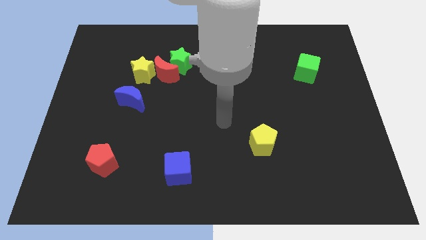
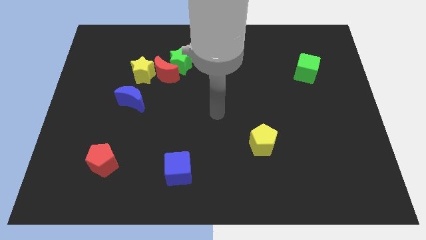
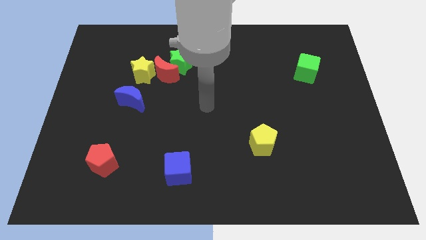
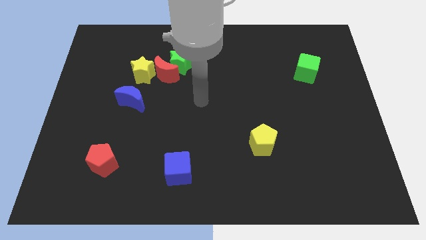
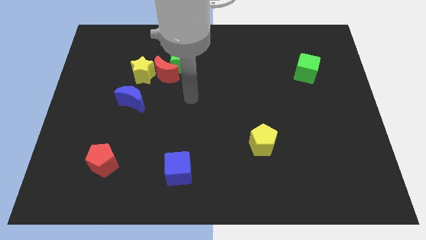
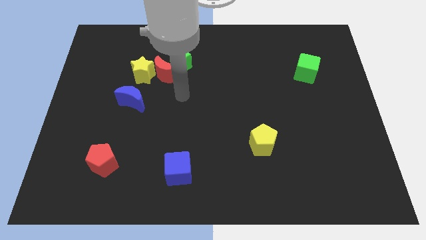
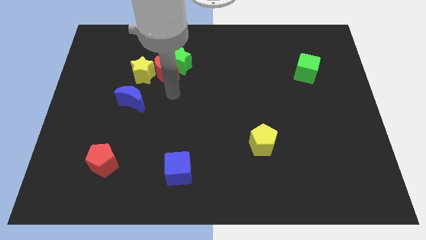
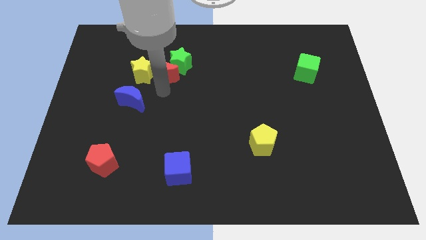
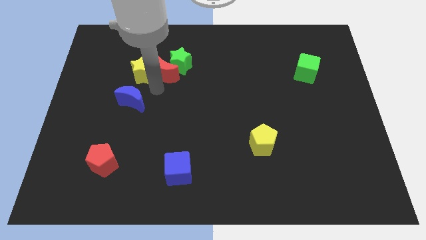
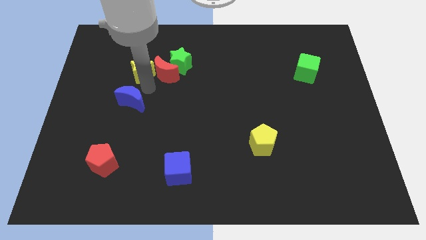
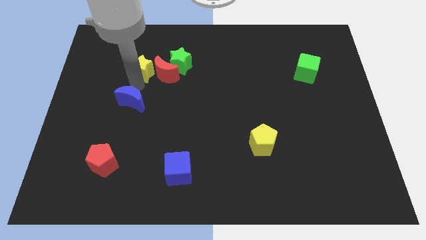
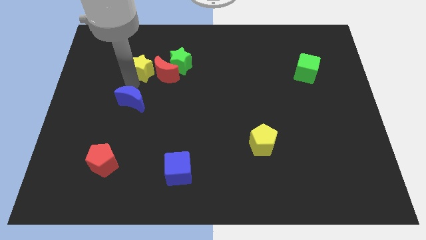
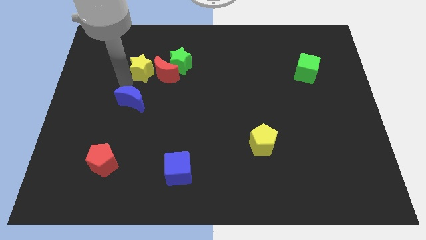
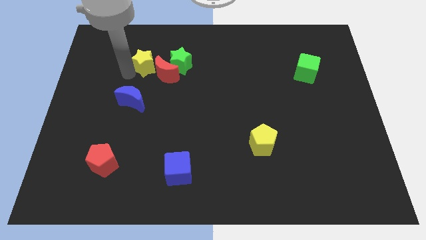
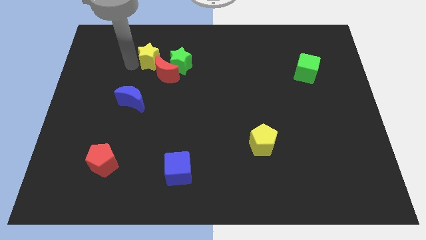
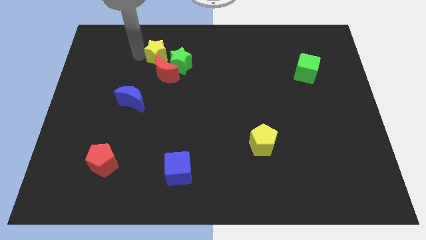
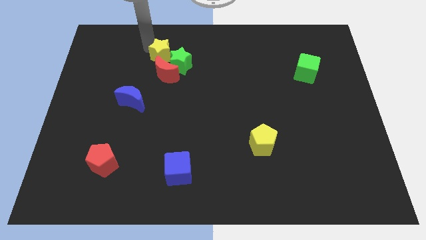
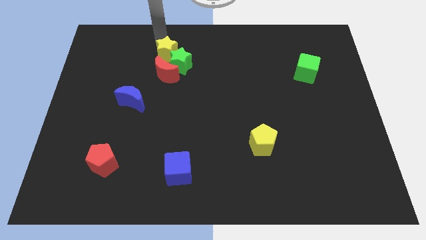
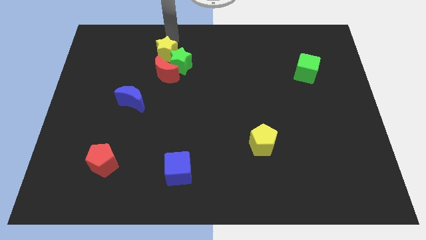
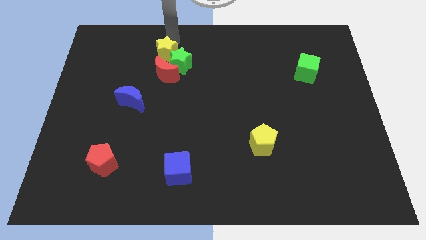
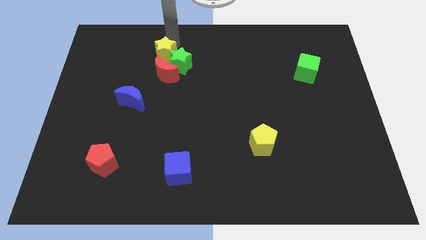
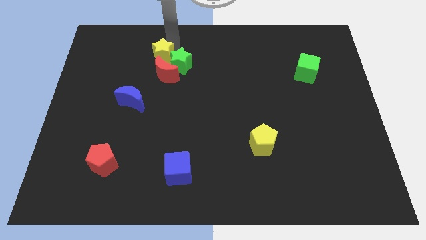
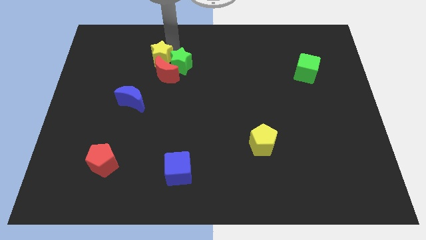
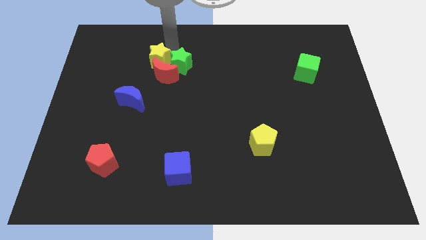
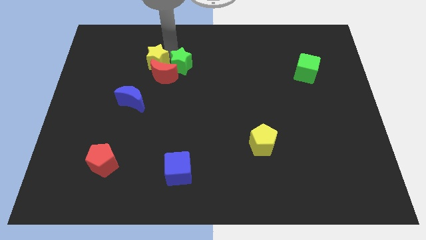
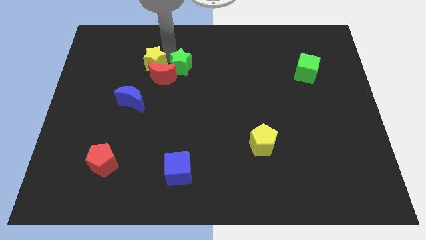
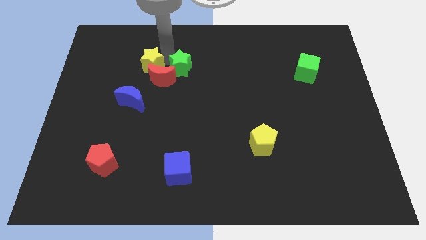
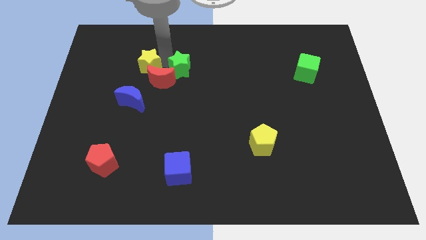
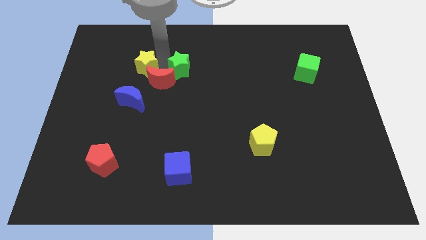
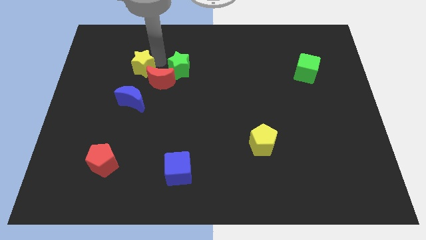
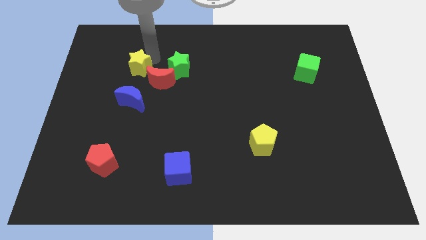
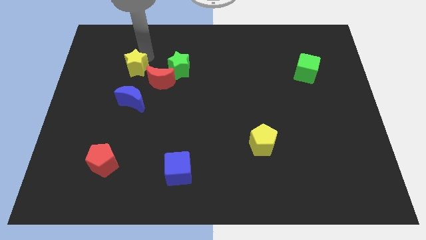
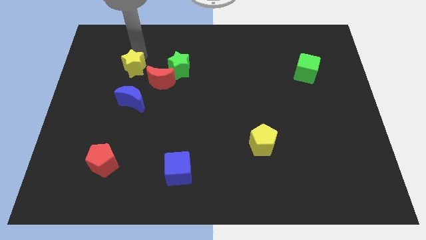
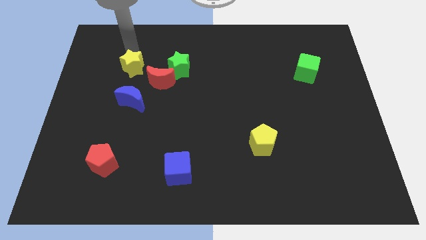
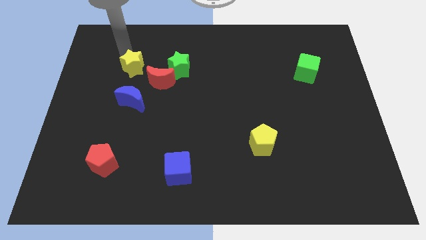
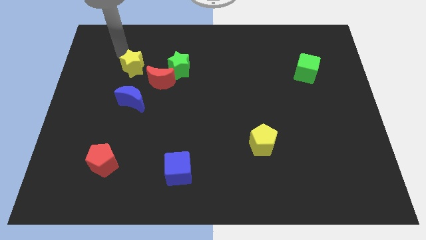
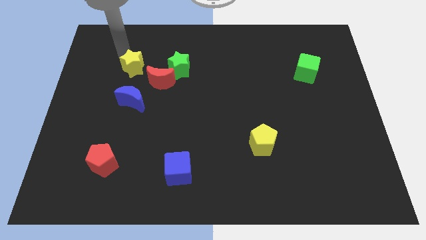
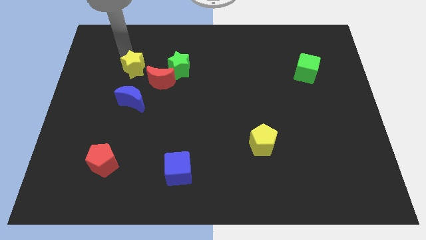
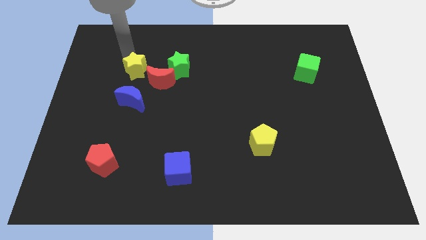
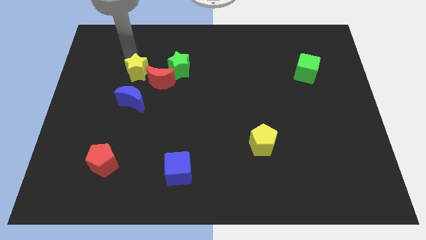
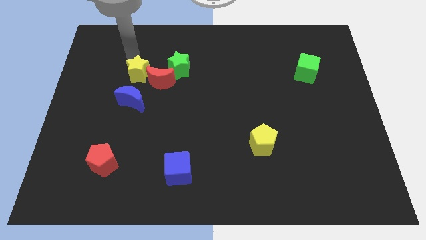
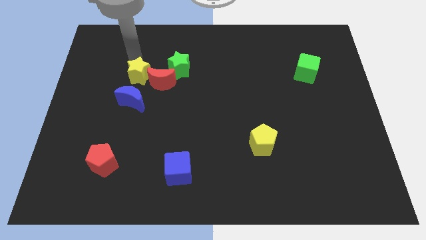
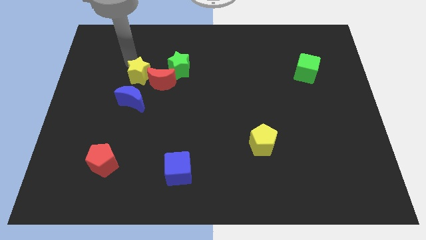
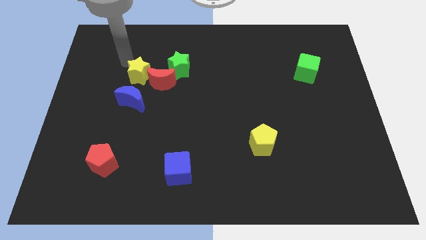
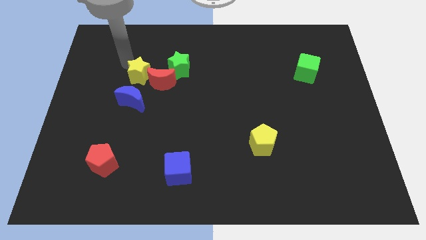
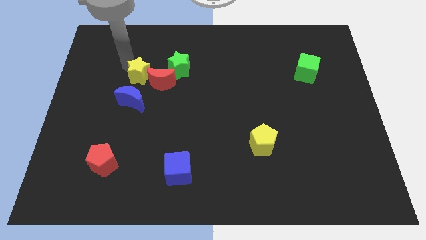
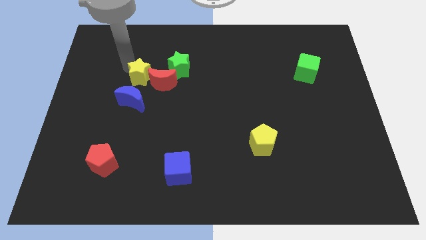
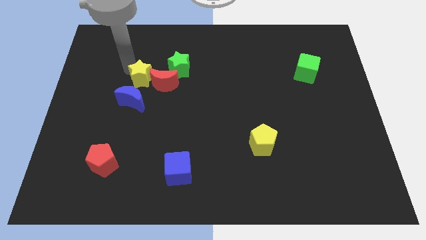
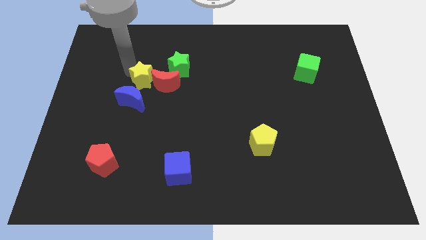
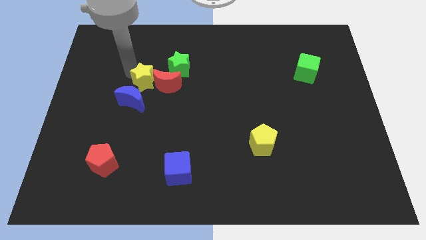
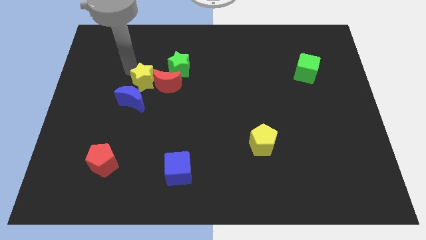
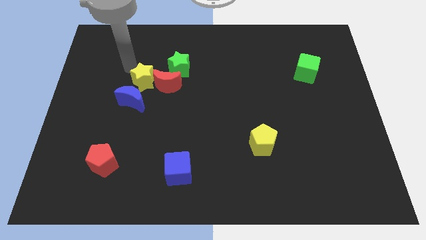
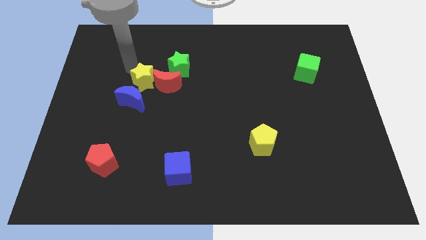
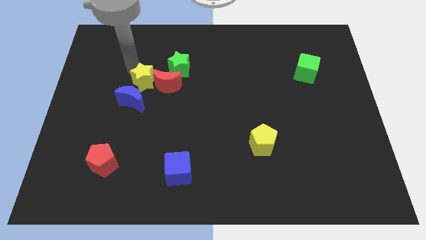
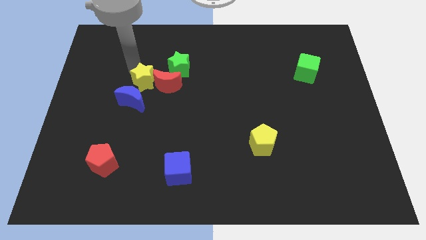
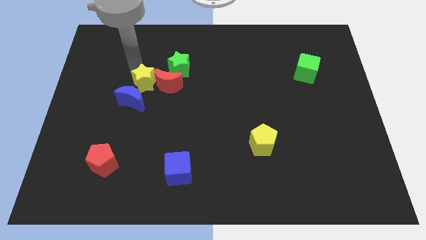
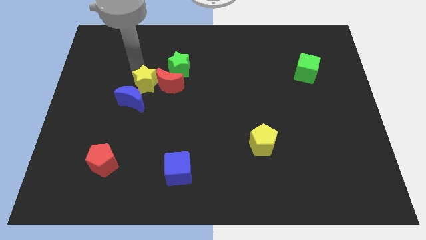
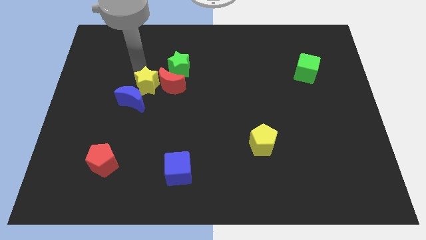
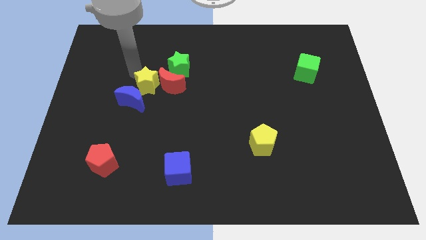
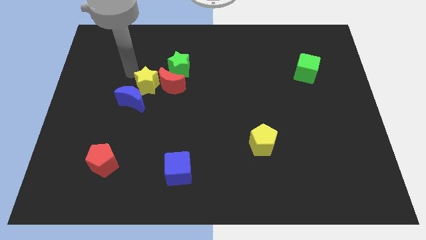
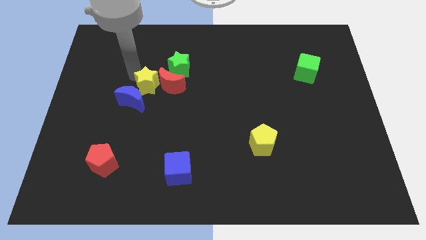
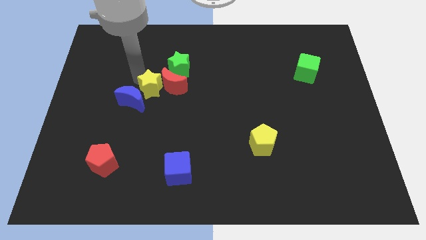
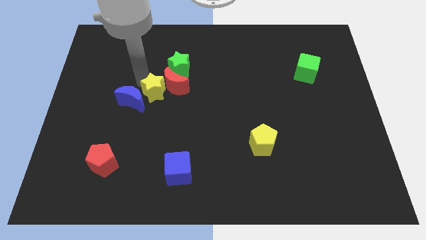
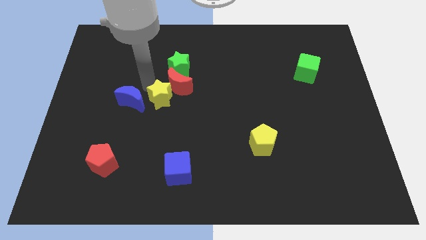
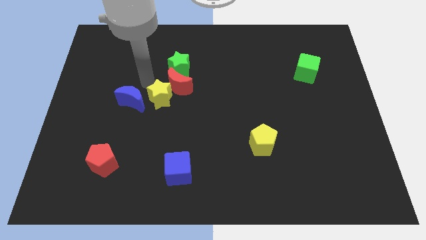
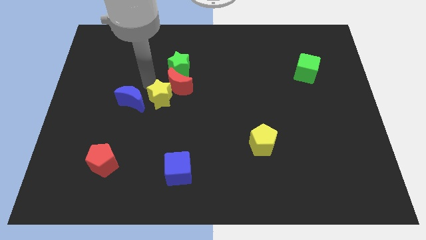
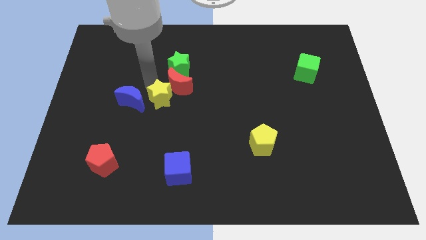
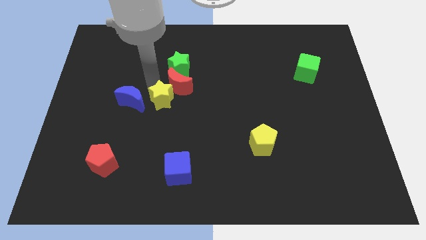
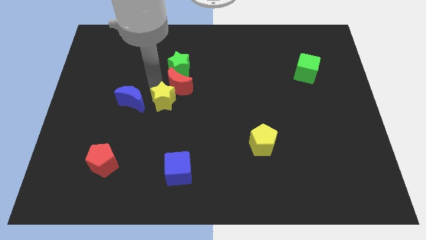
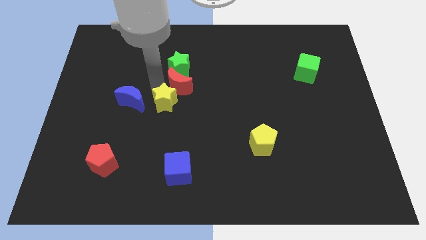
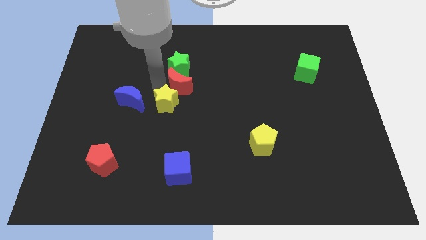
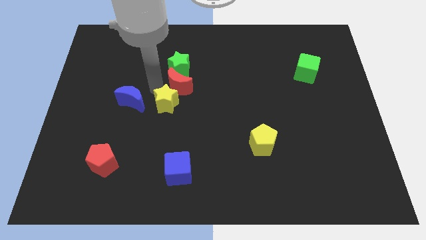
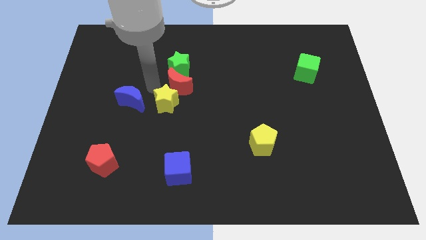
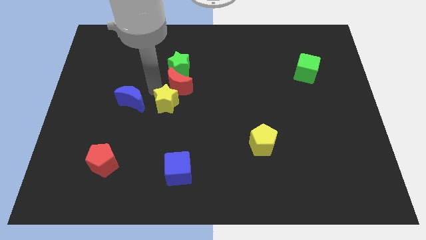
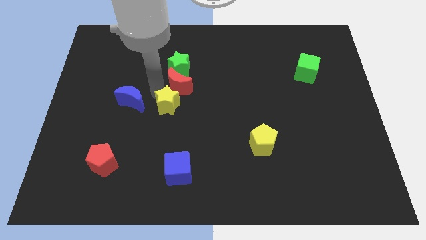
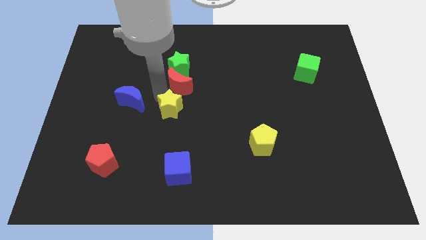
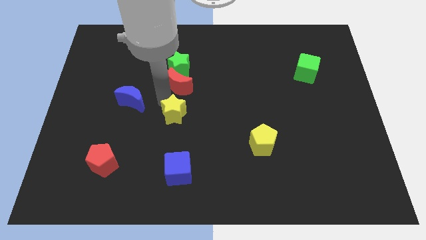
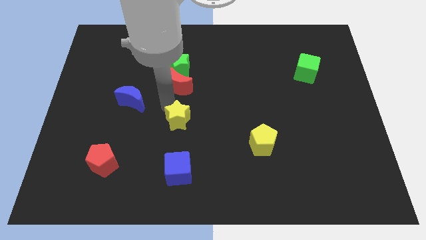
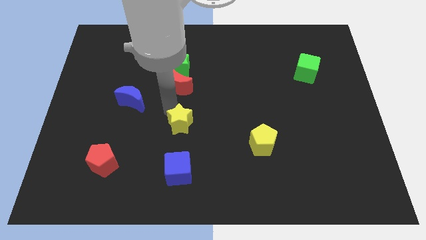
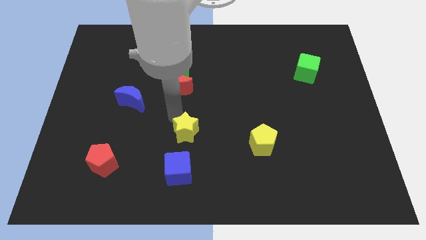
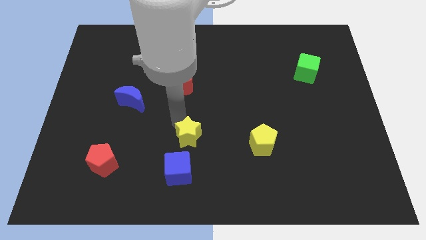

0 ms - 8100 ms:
push the yellow star to the top right side of the blue cube
